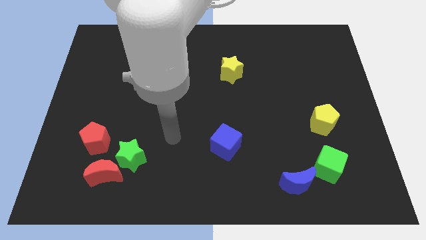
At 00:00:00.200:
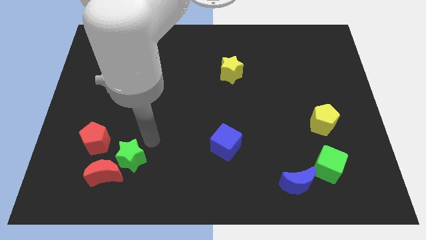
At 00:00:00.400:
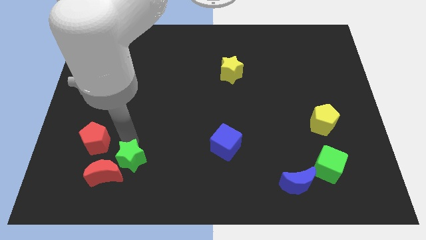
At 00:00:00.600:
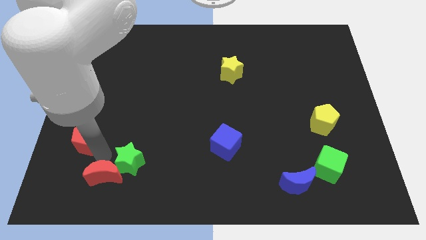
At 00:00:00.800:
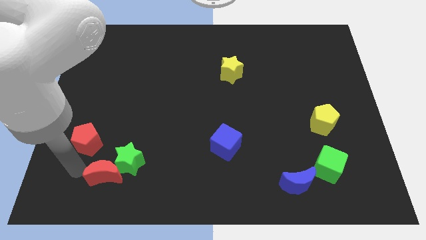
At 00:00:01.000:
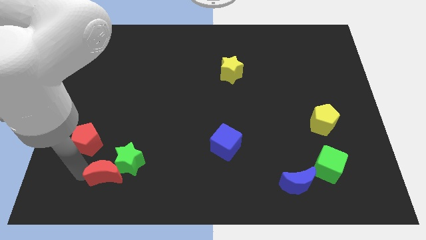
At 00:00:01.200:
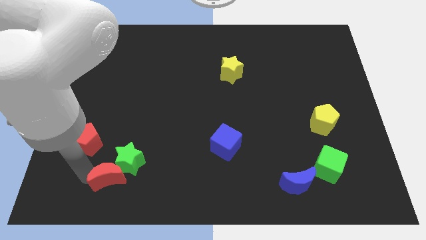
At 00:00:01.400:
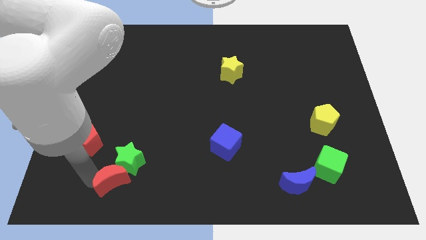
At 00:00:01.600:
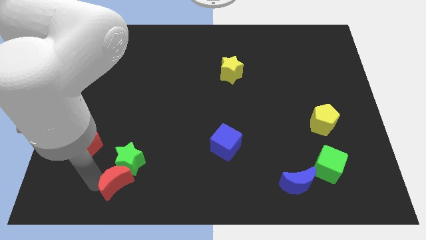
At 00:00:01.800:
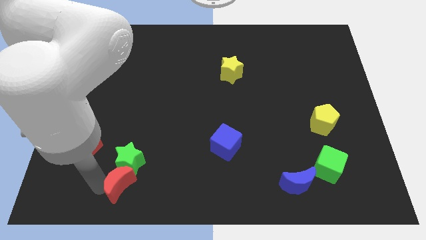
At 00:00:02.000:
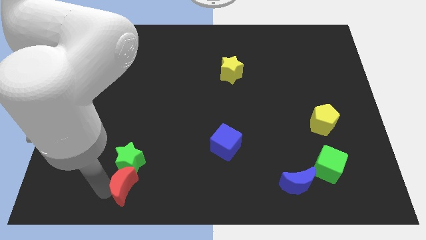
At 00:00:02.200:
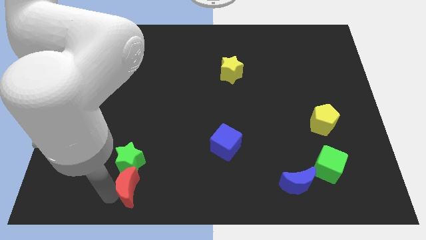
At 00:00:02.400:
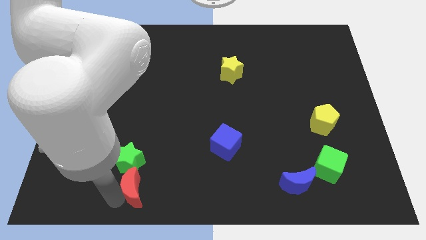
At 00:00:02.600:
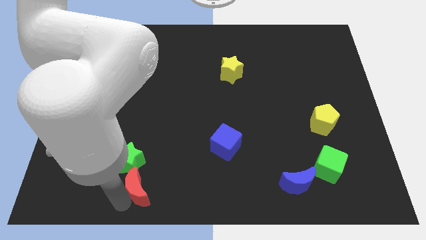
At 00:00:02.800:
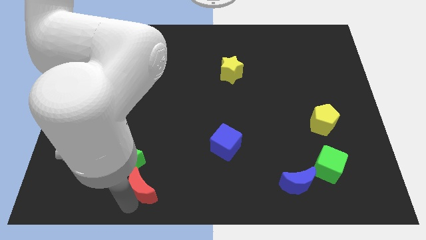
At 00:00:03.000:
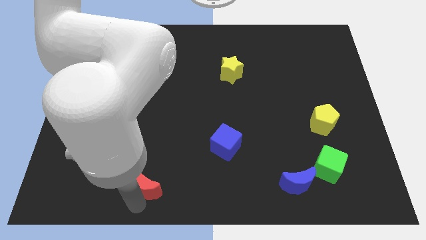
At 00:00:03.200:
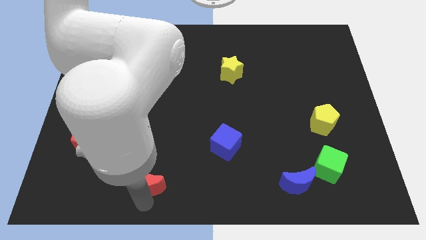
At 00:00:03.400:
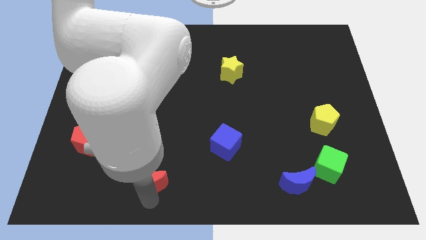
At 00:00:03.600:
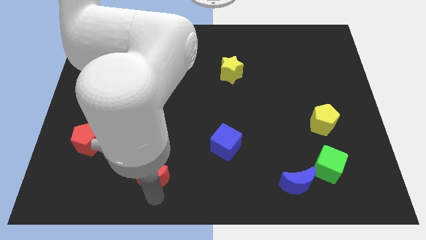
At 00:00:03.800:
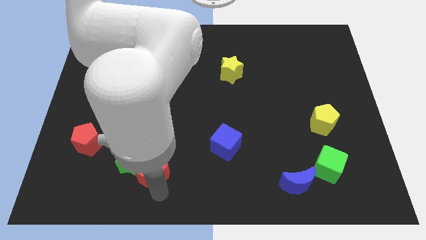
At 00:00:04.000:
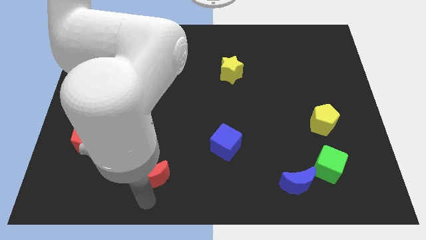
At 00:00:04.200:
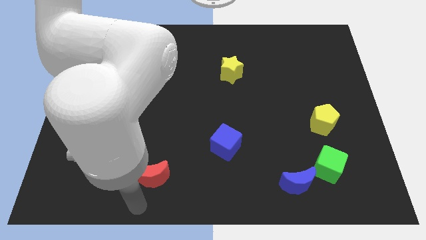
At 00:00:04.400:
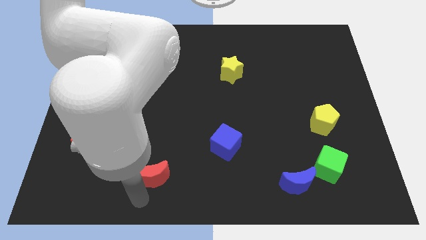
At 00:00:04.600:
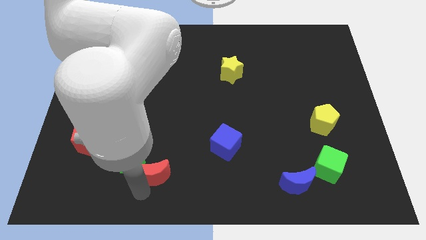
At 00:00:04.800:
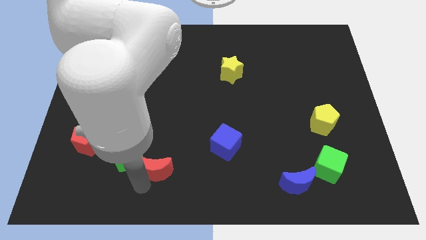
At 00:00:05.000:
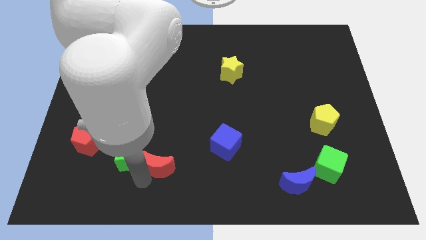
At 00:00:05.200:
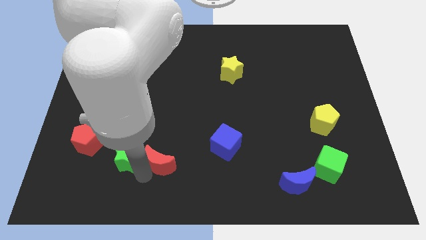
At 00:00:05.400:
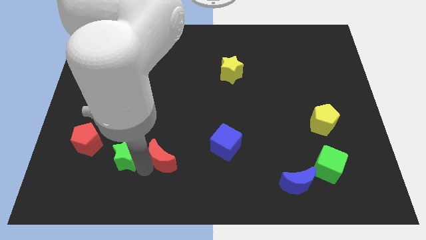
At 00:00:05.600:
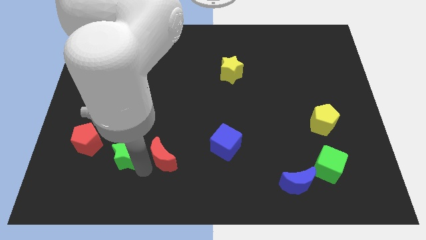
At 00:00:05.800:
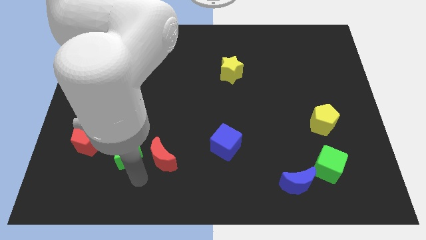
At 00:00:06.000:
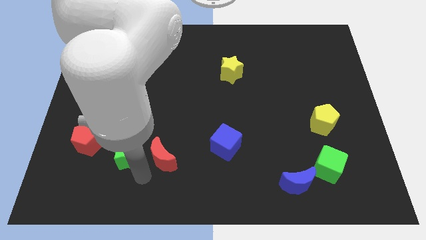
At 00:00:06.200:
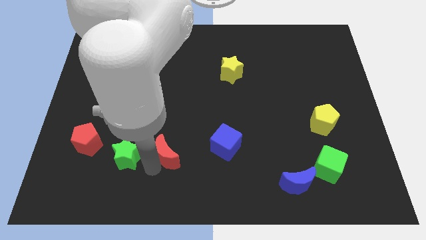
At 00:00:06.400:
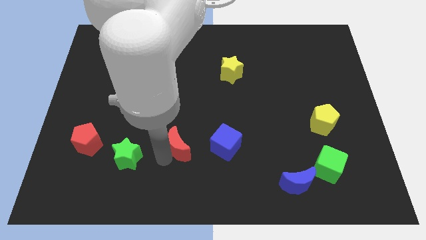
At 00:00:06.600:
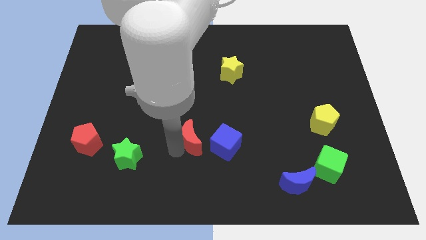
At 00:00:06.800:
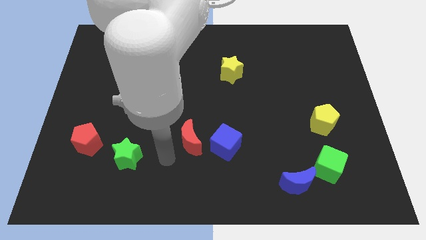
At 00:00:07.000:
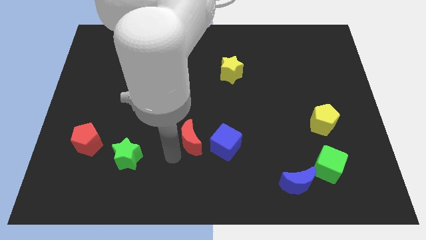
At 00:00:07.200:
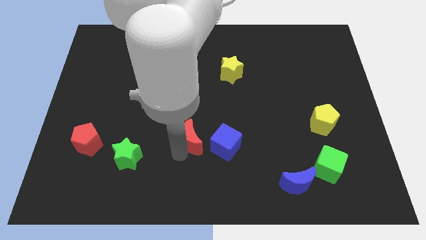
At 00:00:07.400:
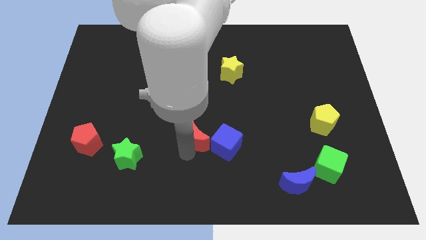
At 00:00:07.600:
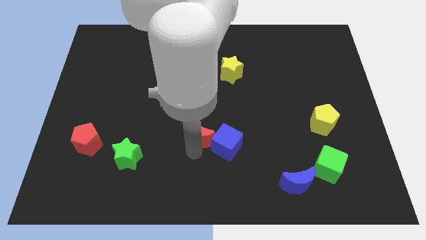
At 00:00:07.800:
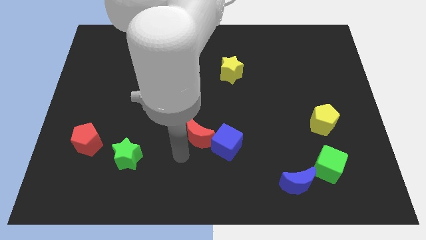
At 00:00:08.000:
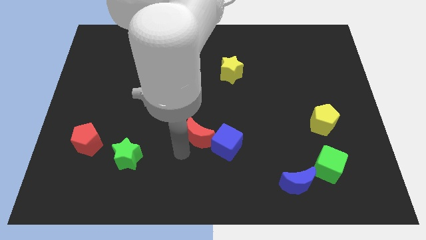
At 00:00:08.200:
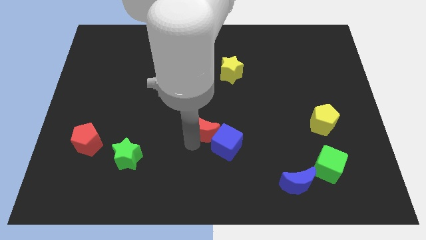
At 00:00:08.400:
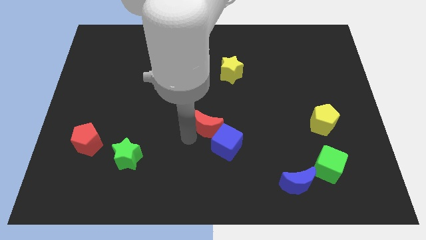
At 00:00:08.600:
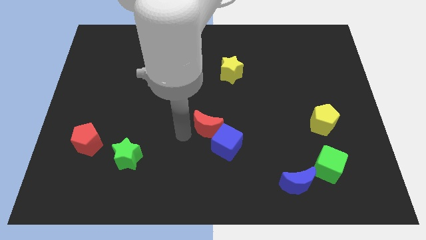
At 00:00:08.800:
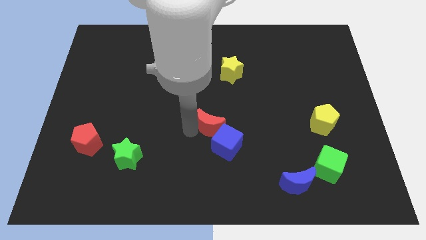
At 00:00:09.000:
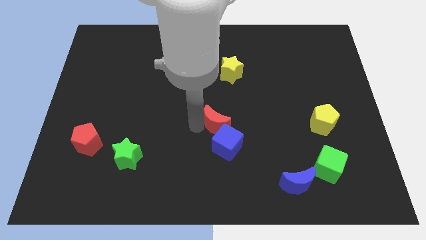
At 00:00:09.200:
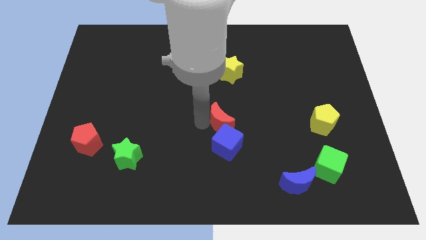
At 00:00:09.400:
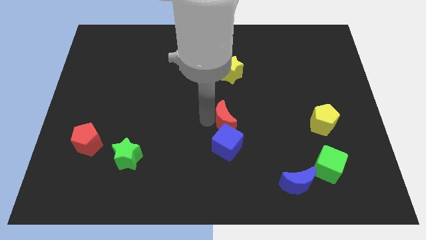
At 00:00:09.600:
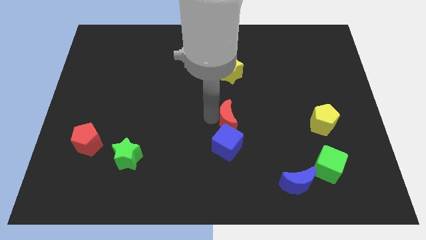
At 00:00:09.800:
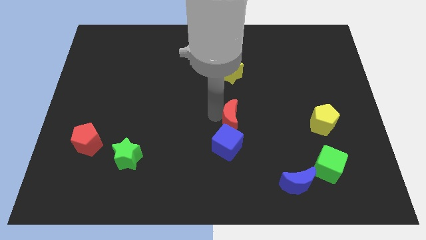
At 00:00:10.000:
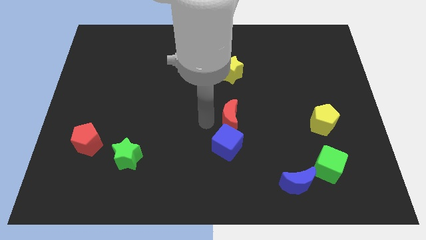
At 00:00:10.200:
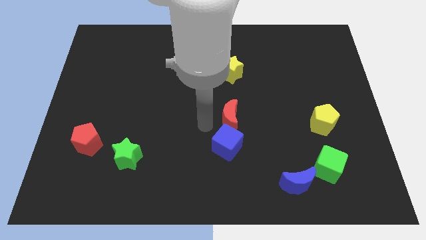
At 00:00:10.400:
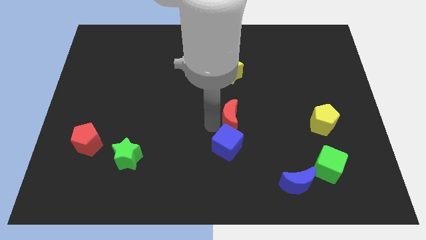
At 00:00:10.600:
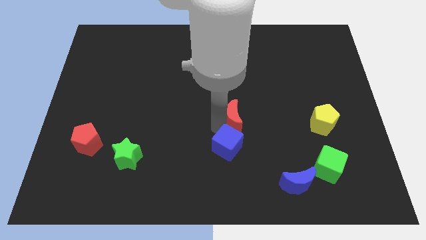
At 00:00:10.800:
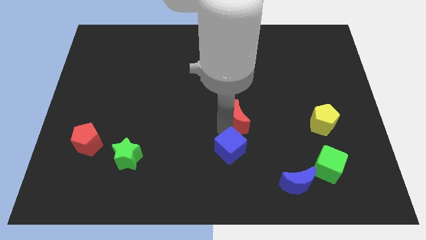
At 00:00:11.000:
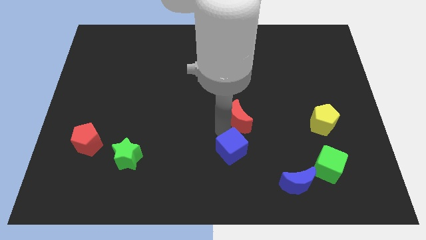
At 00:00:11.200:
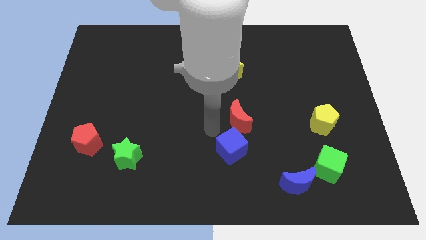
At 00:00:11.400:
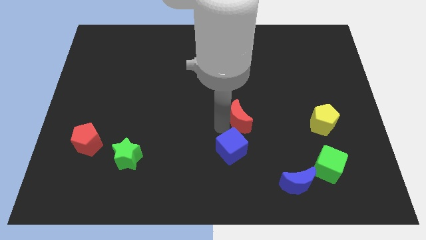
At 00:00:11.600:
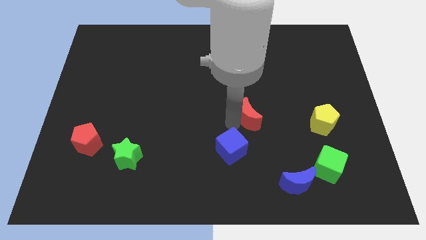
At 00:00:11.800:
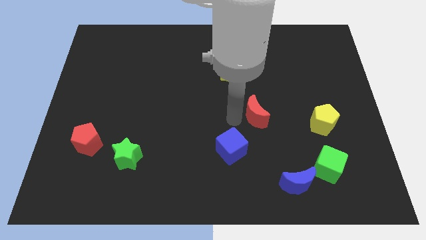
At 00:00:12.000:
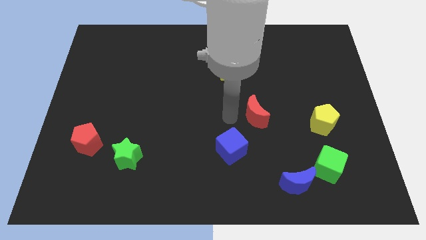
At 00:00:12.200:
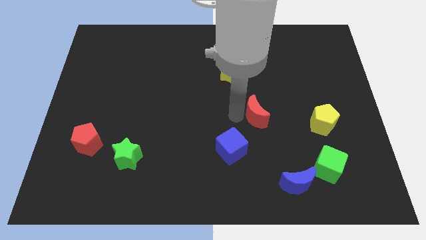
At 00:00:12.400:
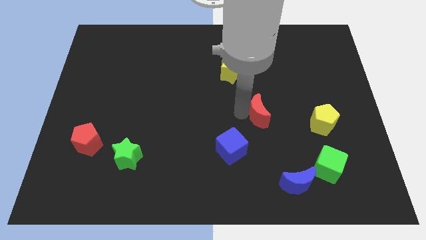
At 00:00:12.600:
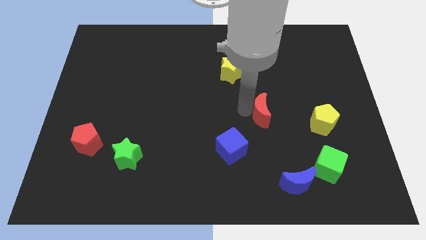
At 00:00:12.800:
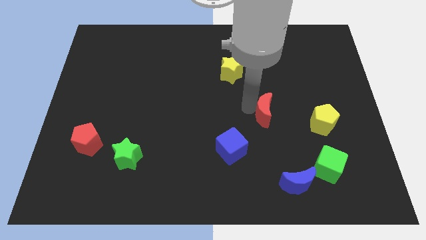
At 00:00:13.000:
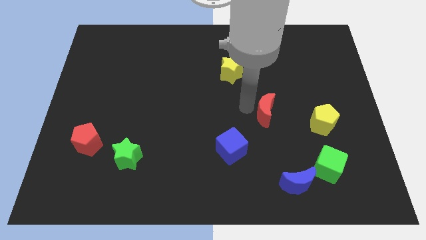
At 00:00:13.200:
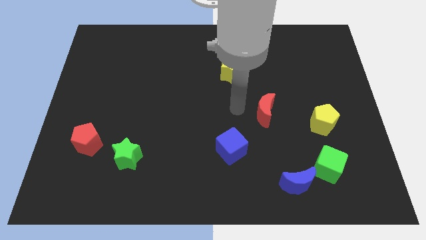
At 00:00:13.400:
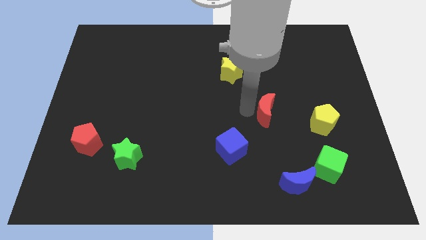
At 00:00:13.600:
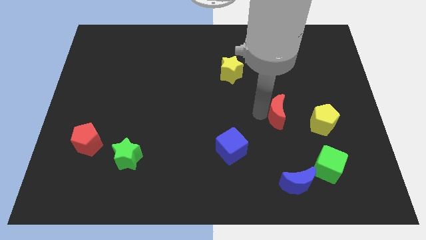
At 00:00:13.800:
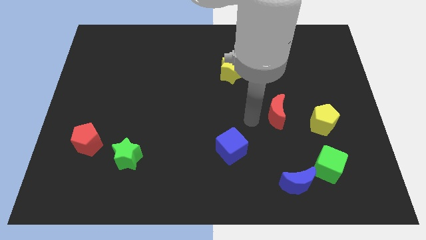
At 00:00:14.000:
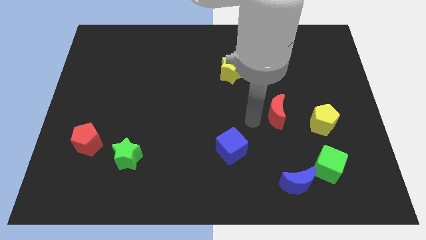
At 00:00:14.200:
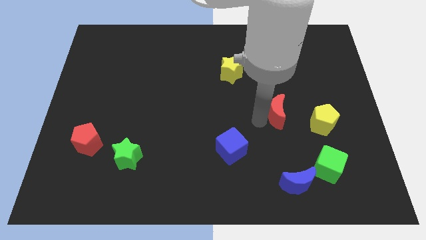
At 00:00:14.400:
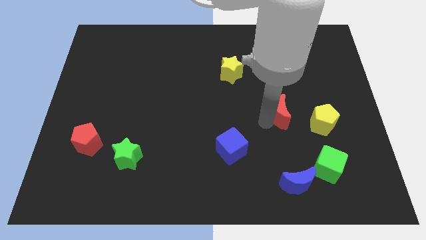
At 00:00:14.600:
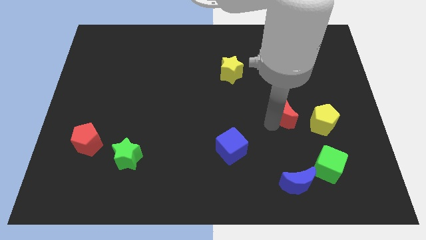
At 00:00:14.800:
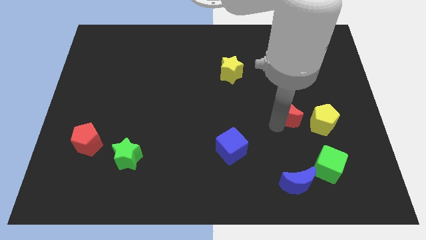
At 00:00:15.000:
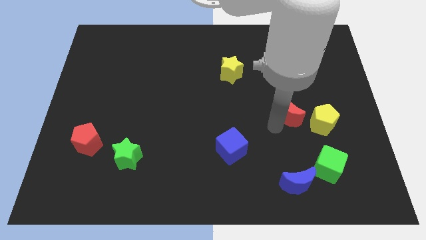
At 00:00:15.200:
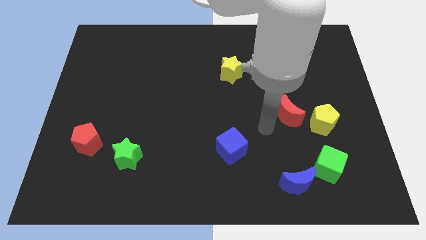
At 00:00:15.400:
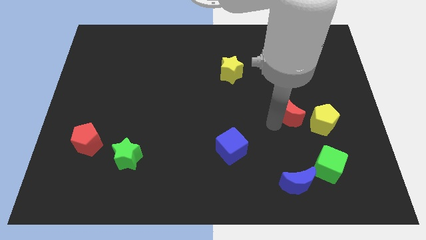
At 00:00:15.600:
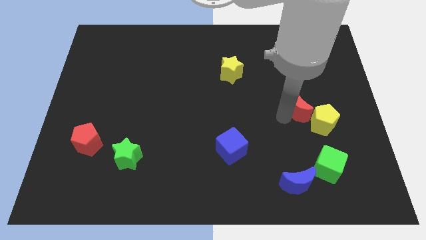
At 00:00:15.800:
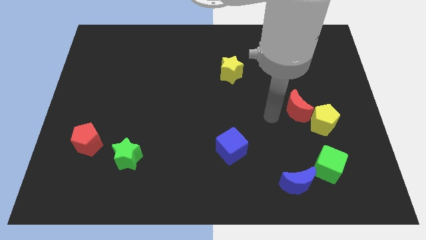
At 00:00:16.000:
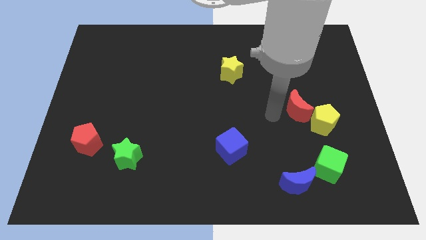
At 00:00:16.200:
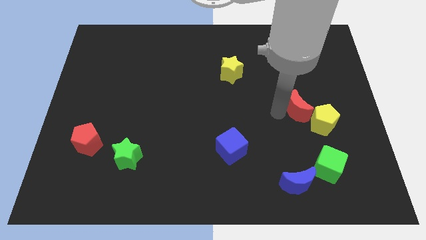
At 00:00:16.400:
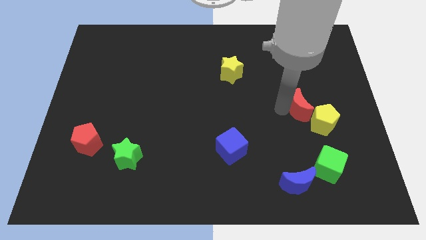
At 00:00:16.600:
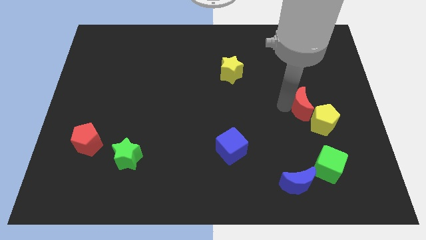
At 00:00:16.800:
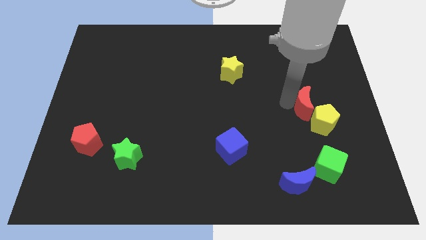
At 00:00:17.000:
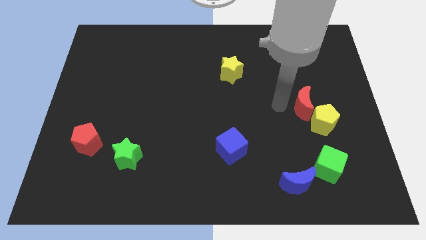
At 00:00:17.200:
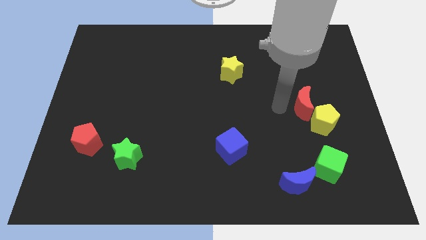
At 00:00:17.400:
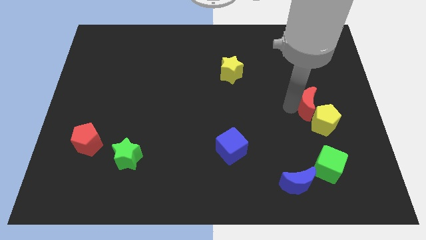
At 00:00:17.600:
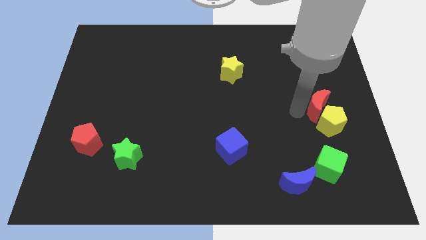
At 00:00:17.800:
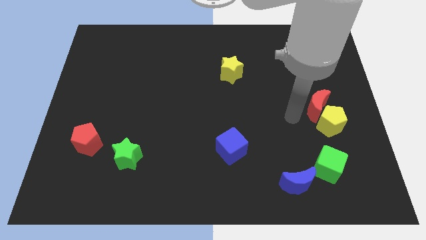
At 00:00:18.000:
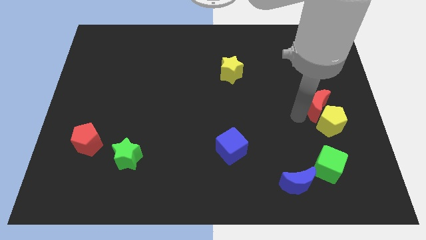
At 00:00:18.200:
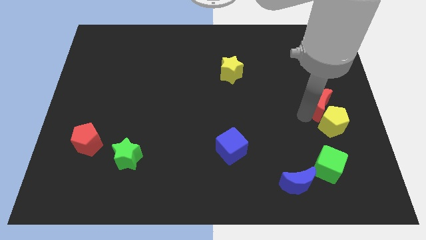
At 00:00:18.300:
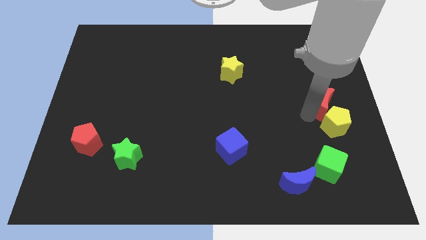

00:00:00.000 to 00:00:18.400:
put the red moon to the right side
